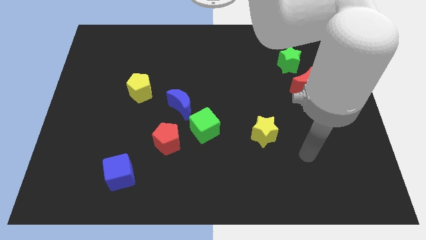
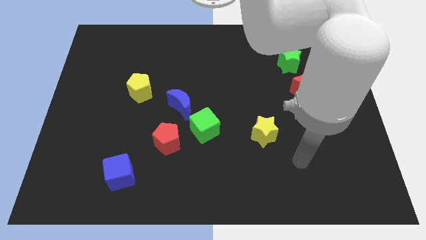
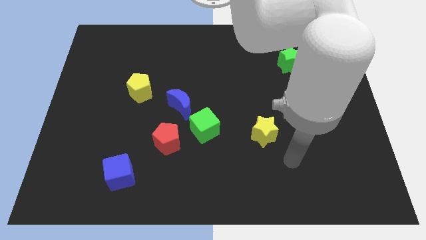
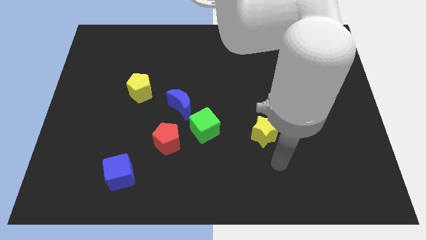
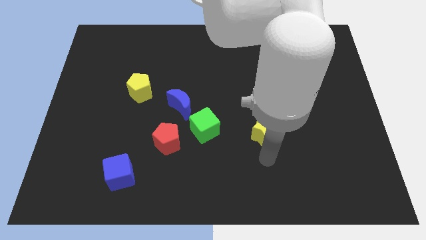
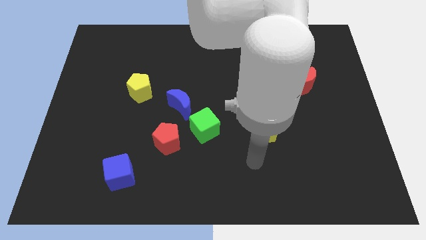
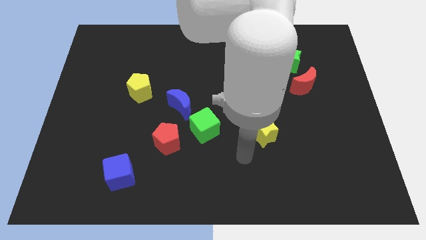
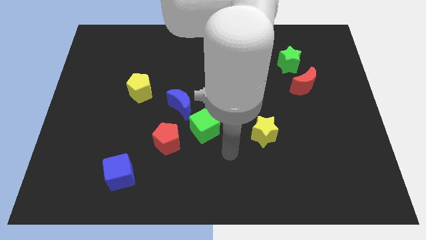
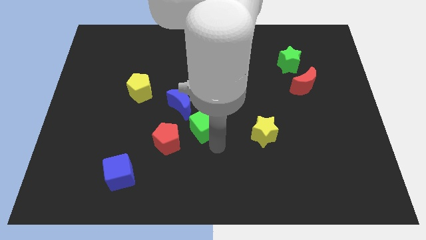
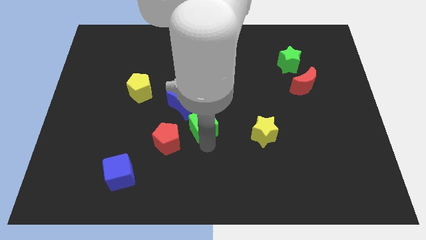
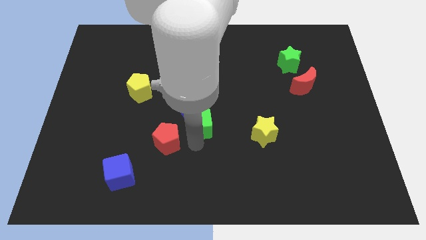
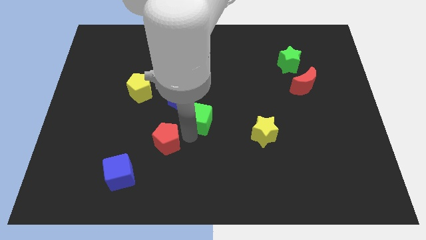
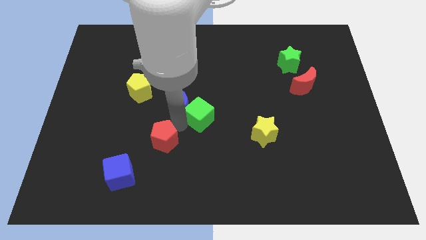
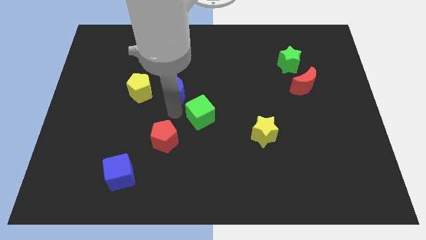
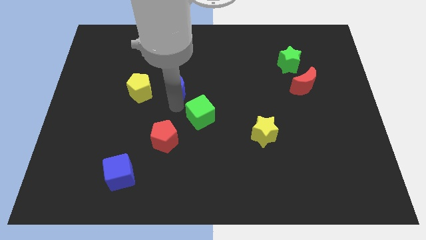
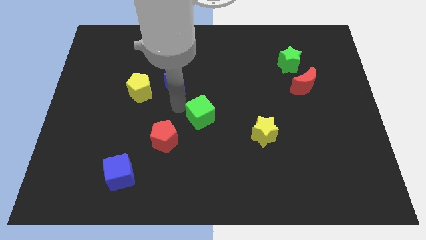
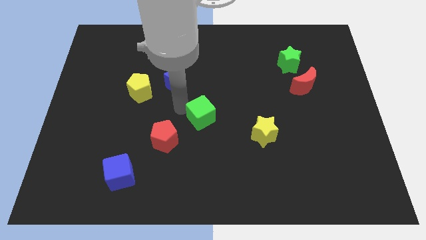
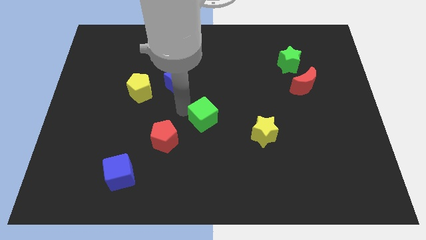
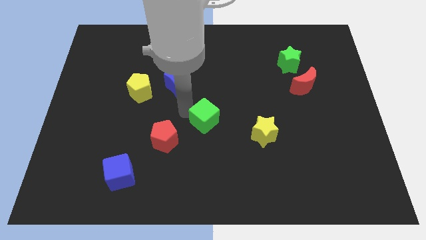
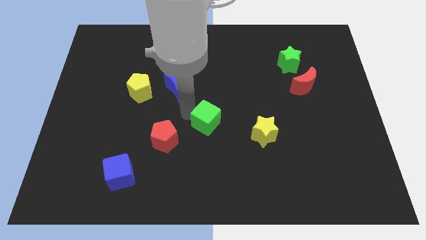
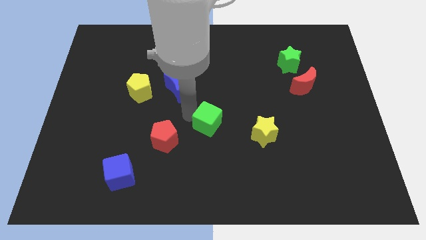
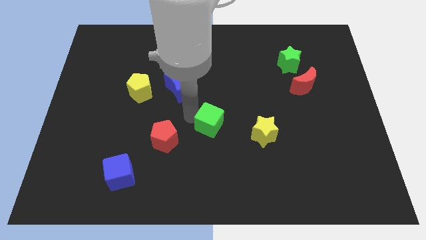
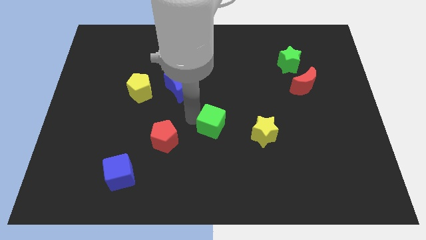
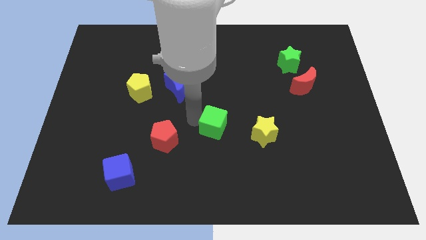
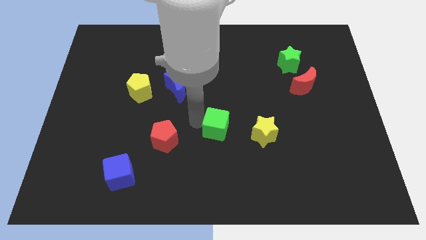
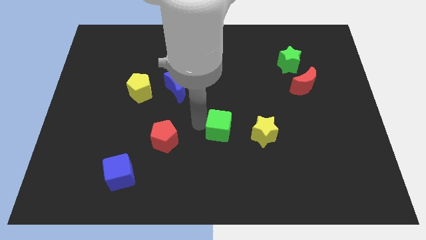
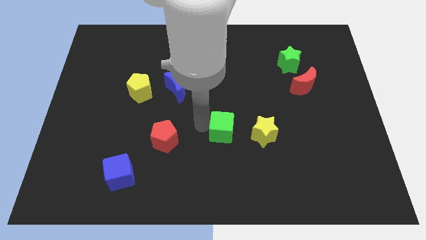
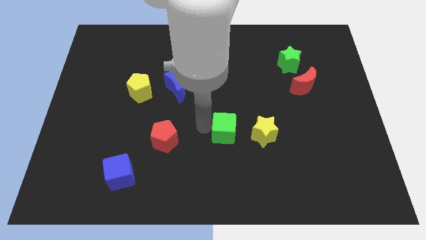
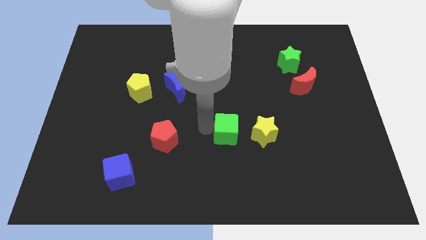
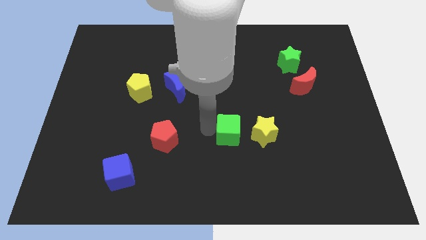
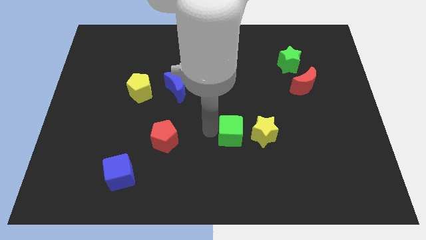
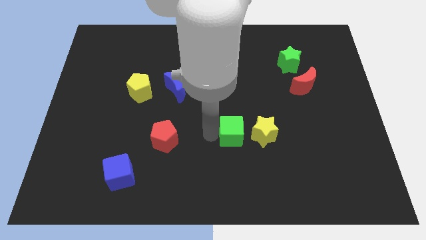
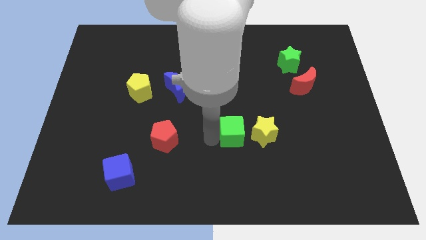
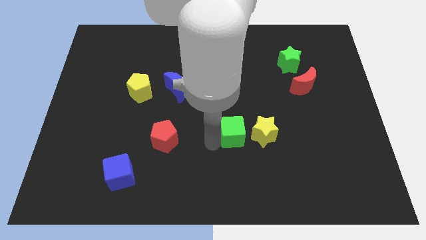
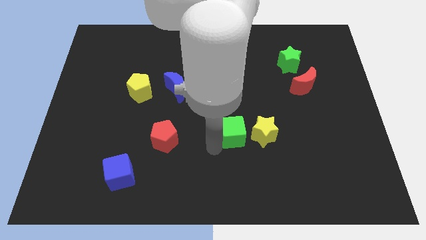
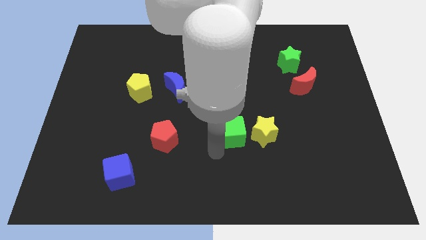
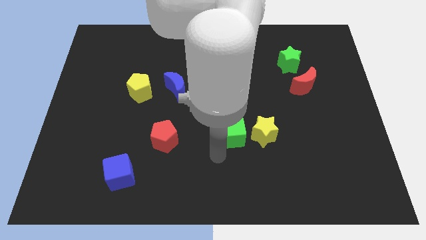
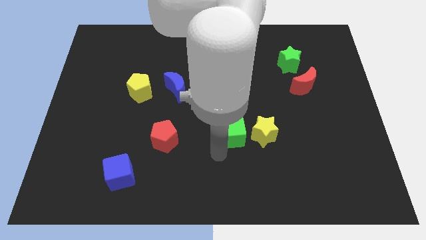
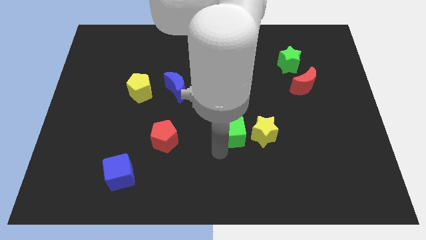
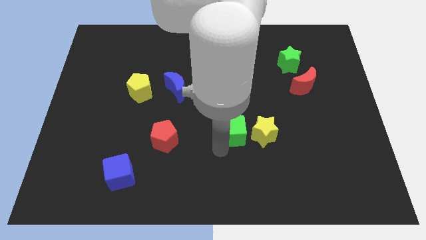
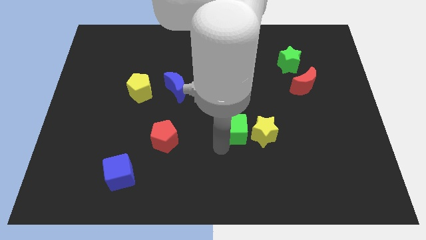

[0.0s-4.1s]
move the green cube right a little bit

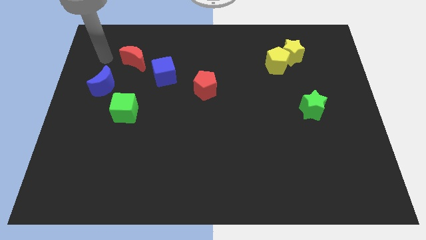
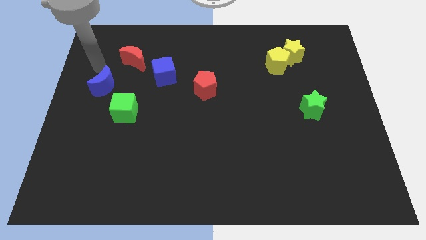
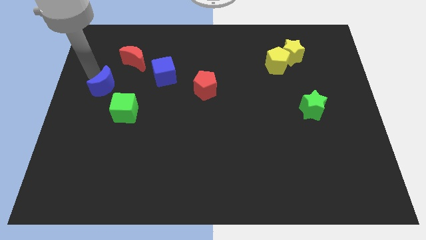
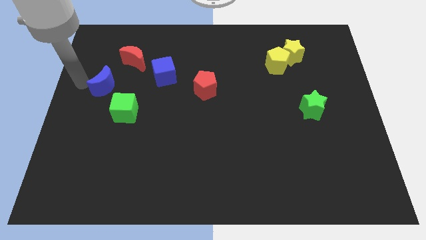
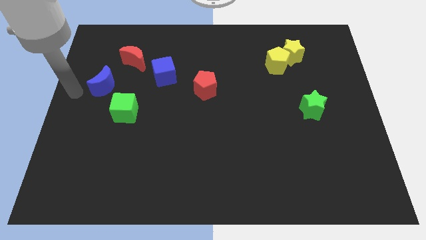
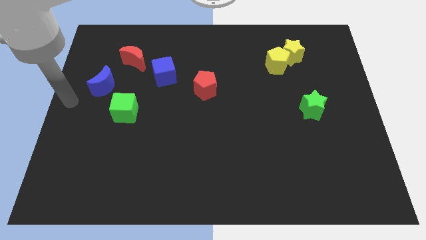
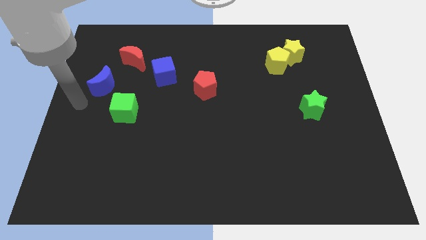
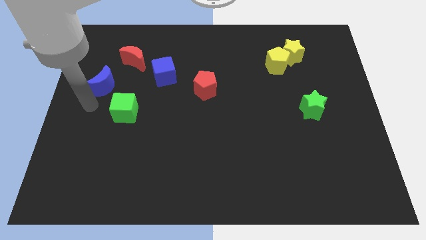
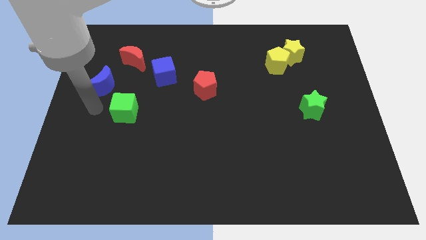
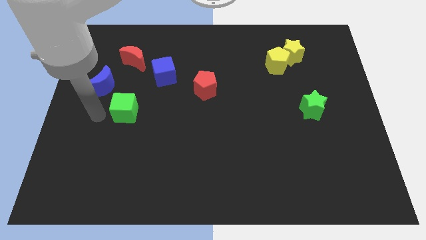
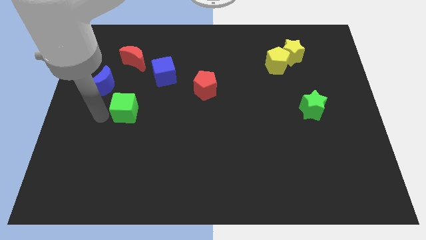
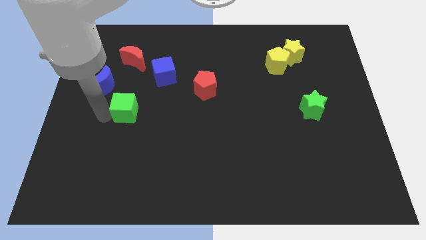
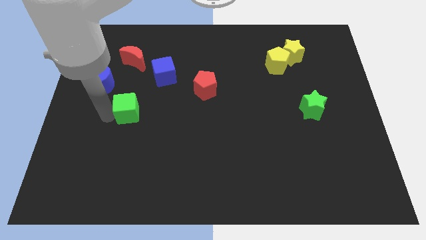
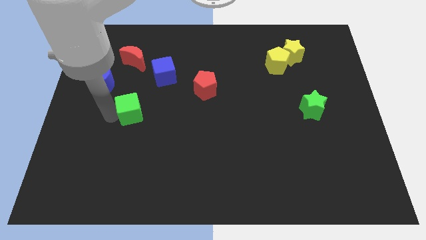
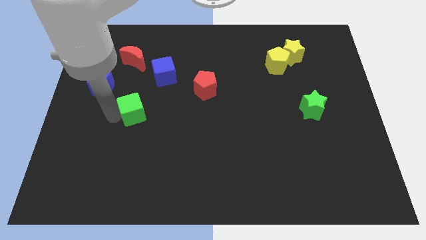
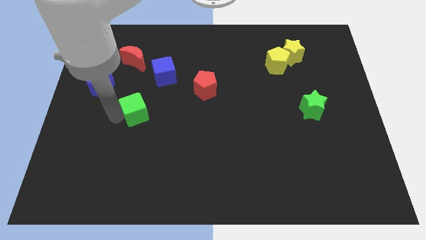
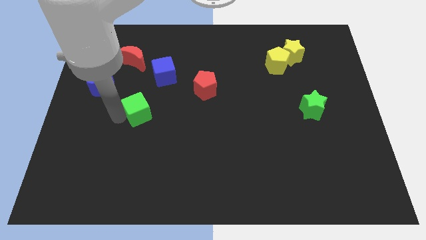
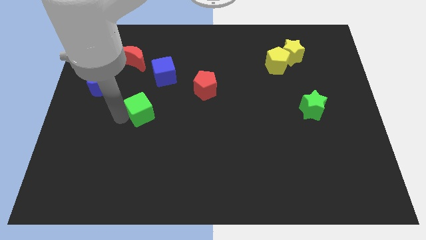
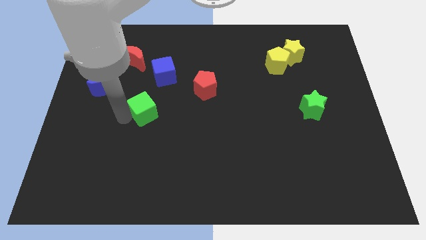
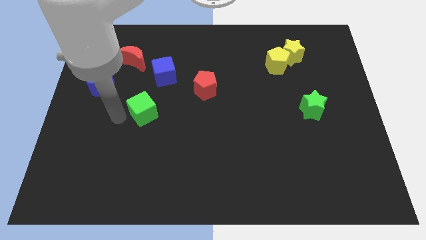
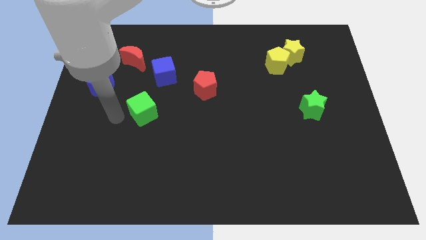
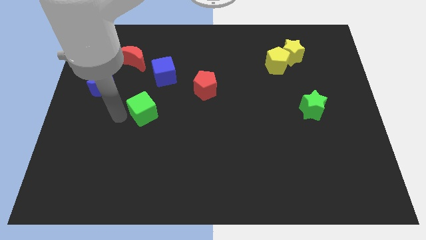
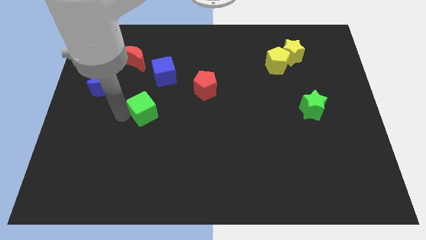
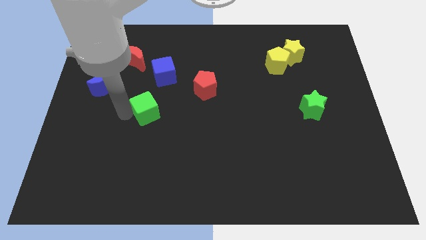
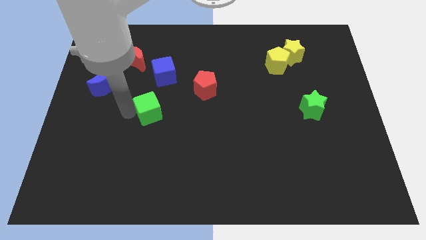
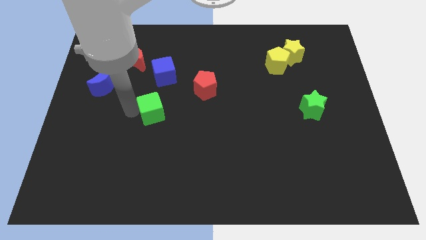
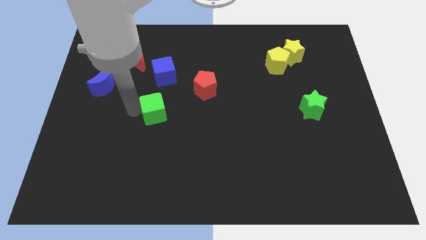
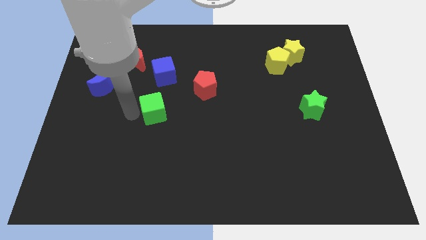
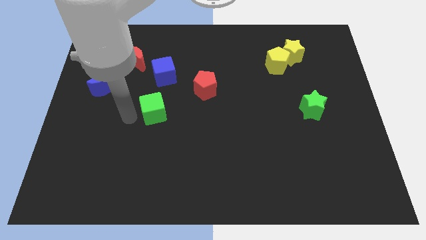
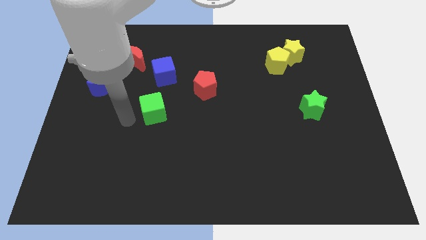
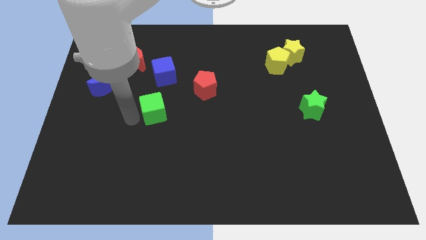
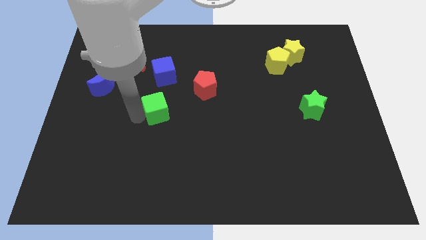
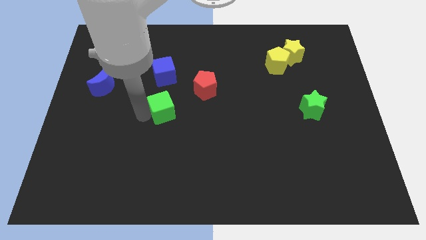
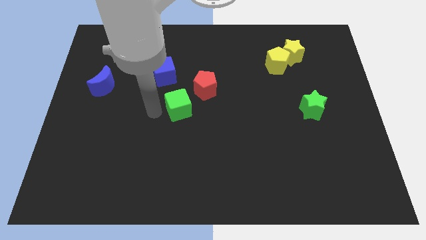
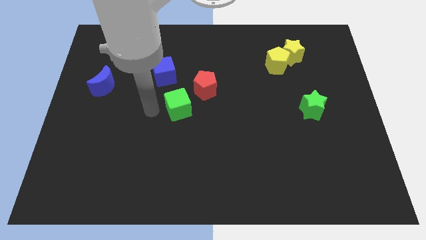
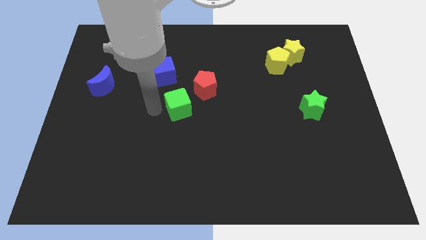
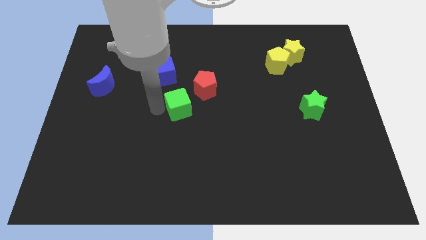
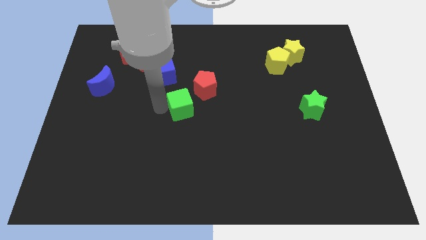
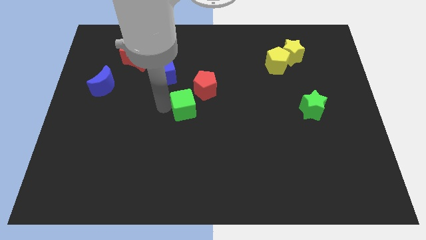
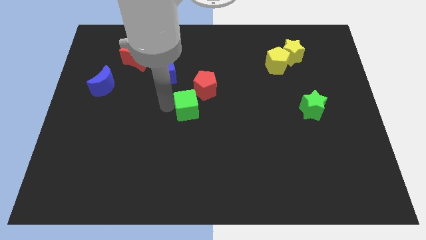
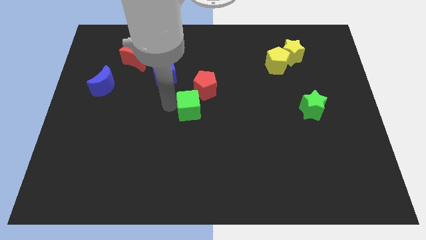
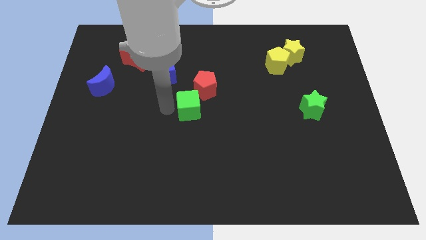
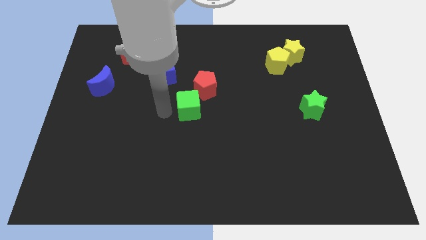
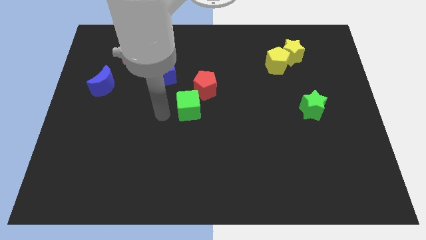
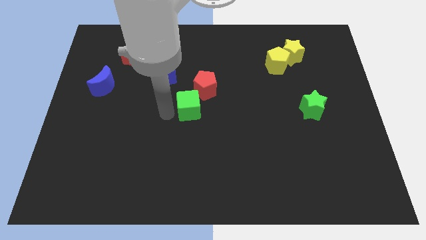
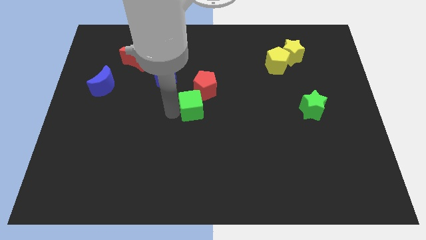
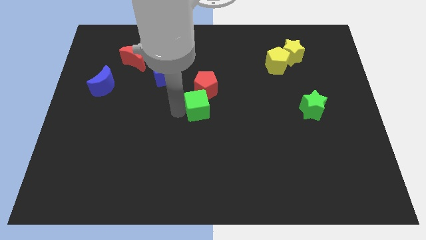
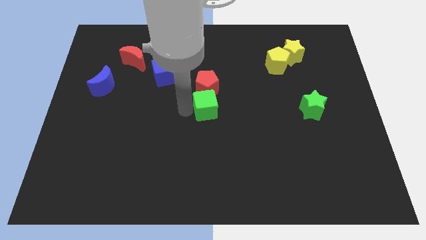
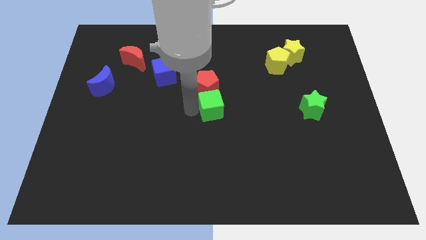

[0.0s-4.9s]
push the green cube right
